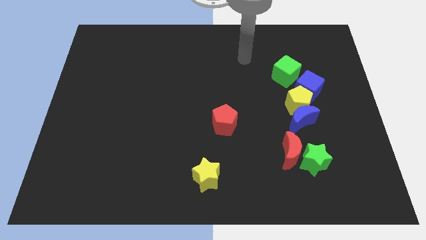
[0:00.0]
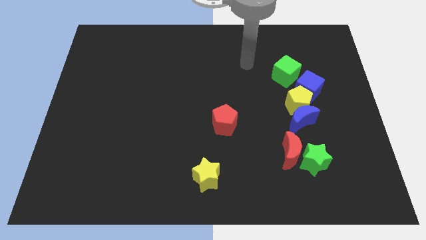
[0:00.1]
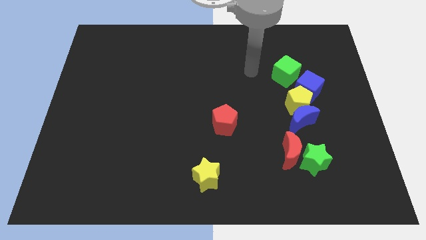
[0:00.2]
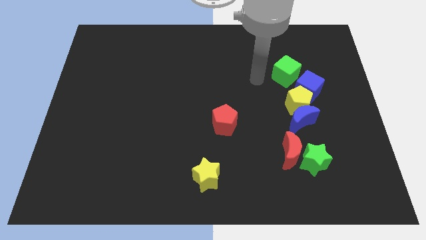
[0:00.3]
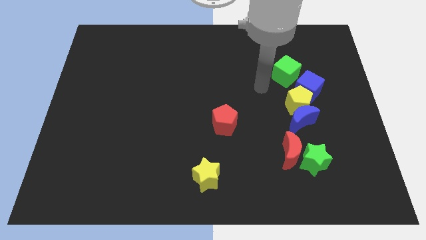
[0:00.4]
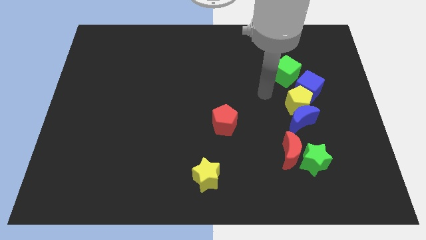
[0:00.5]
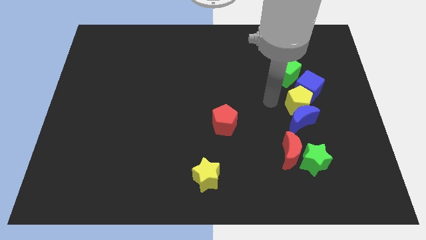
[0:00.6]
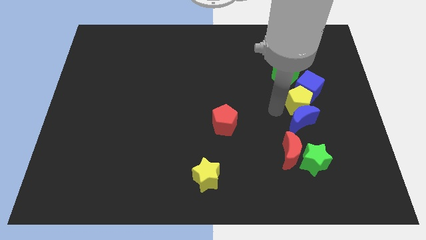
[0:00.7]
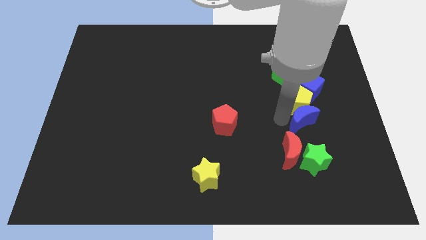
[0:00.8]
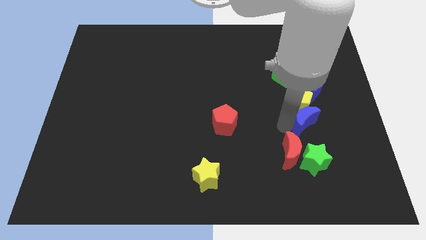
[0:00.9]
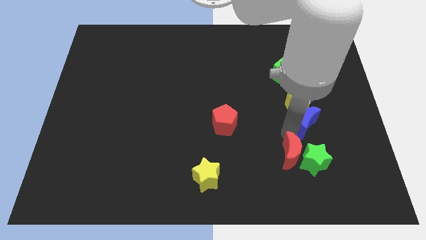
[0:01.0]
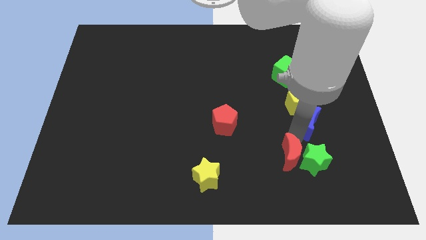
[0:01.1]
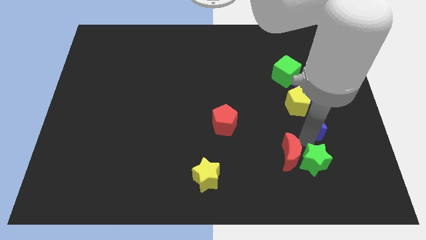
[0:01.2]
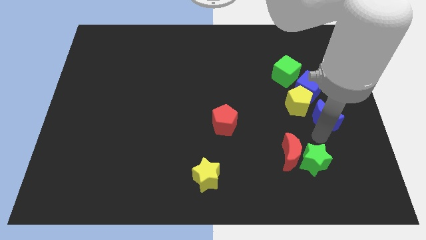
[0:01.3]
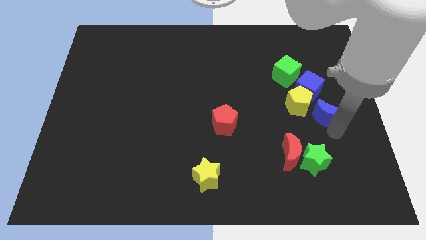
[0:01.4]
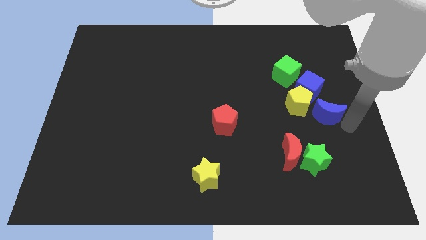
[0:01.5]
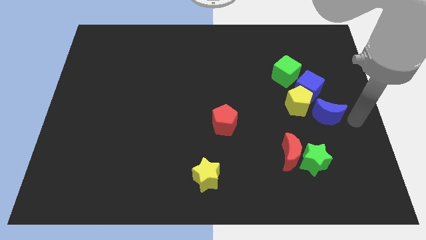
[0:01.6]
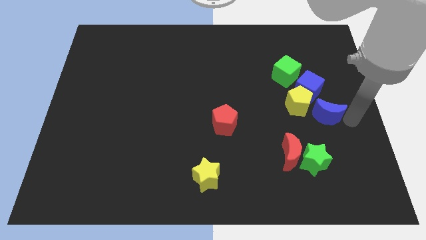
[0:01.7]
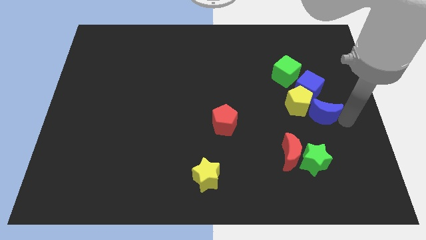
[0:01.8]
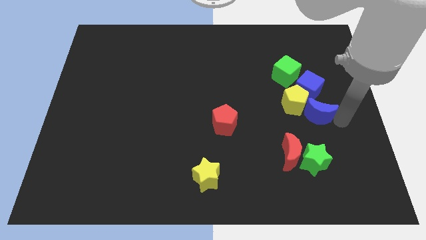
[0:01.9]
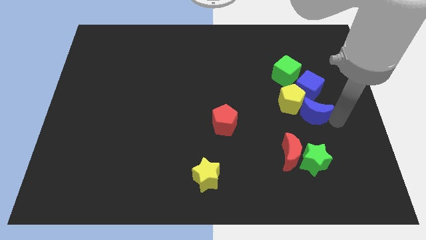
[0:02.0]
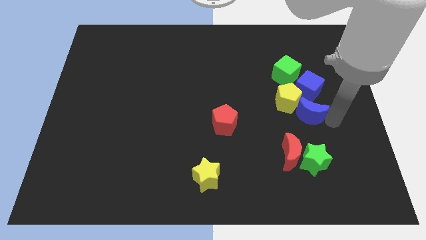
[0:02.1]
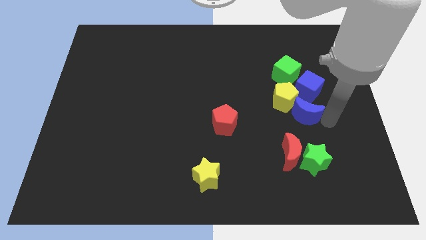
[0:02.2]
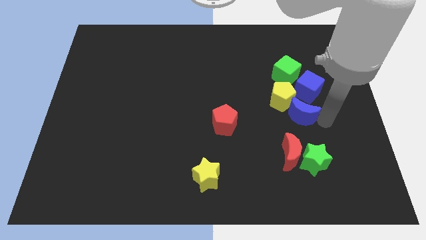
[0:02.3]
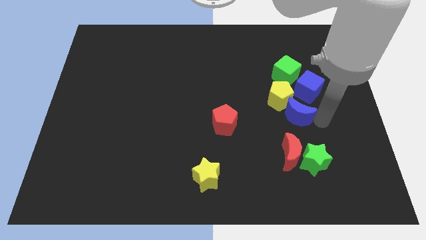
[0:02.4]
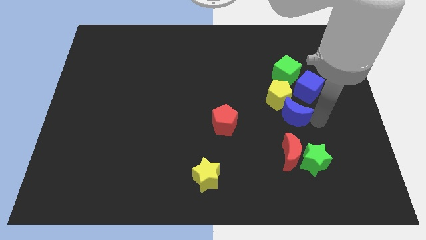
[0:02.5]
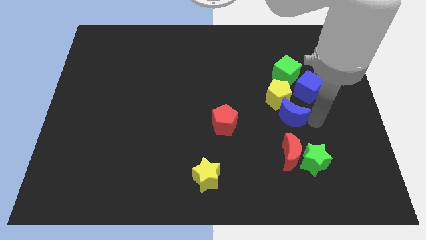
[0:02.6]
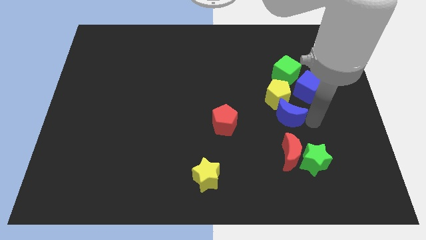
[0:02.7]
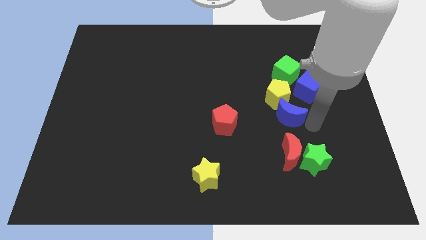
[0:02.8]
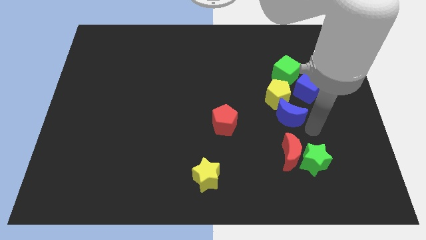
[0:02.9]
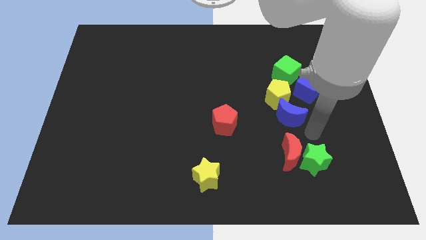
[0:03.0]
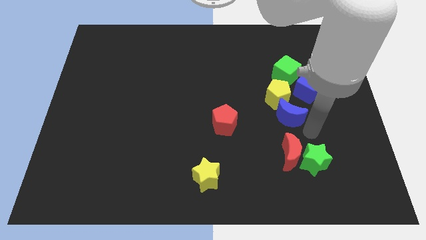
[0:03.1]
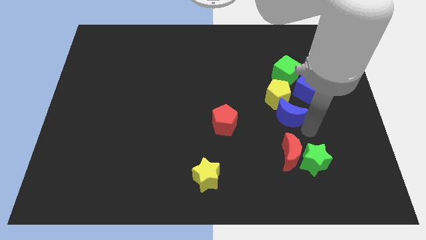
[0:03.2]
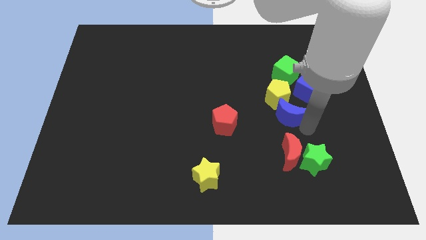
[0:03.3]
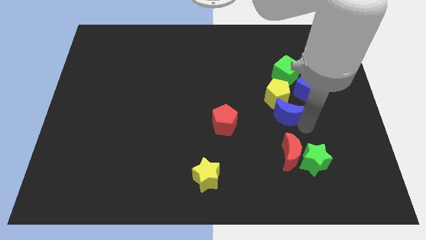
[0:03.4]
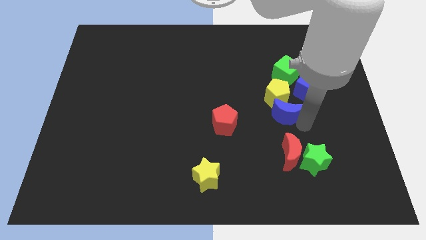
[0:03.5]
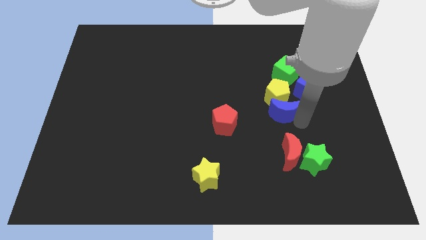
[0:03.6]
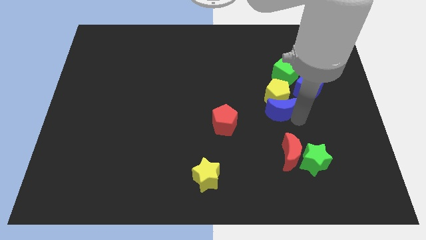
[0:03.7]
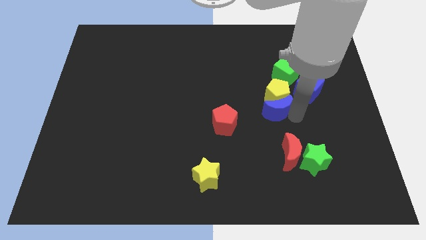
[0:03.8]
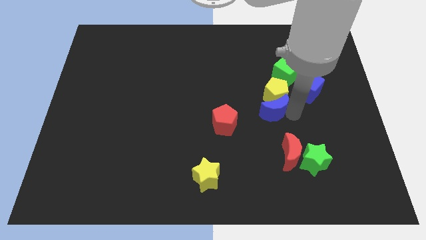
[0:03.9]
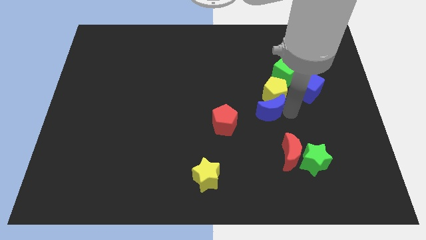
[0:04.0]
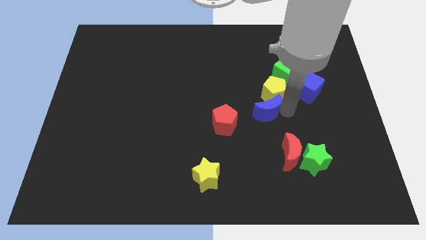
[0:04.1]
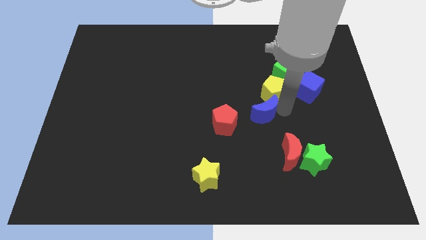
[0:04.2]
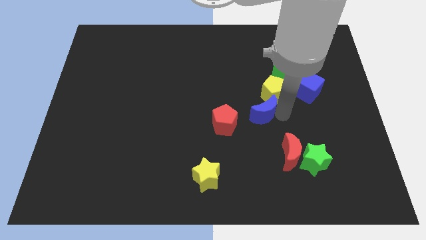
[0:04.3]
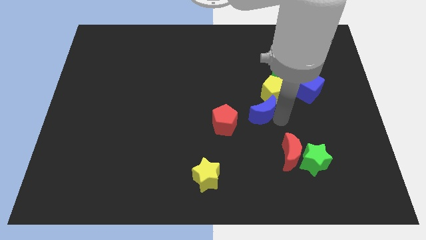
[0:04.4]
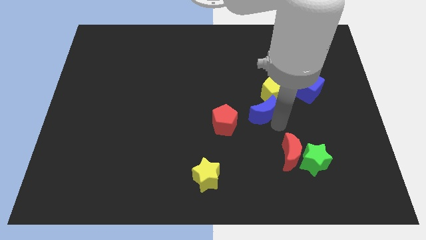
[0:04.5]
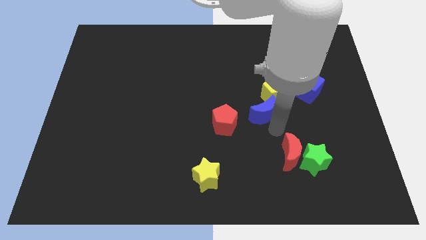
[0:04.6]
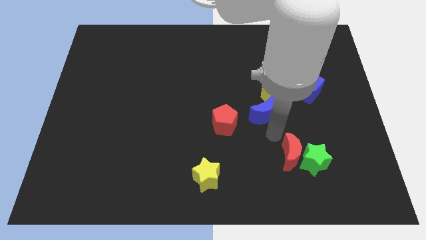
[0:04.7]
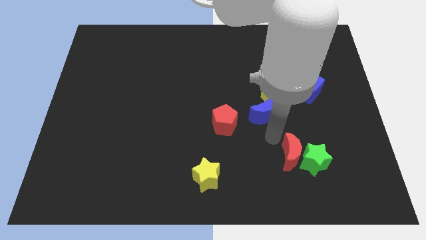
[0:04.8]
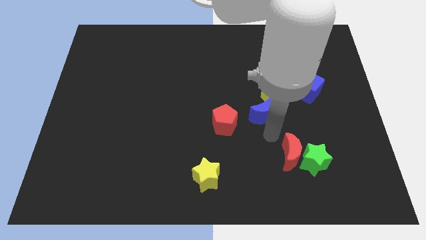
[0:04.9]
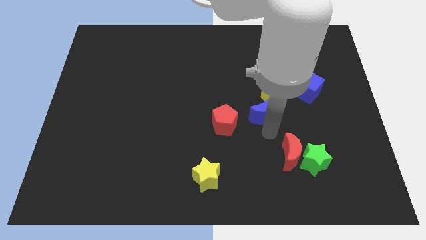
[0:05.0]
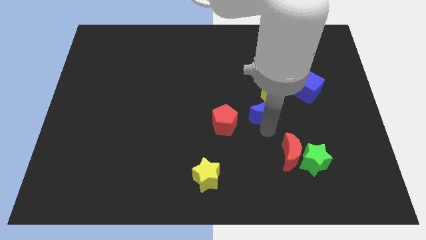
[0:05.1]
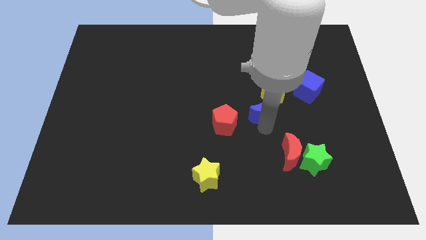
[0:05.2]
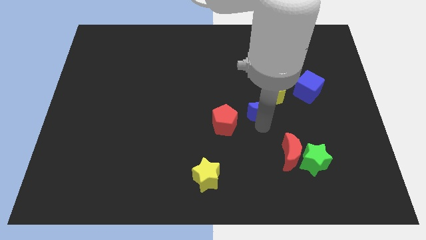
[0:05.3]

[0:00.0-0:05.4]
slightly slide the blue moon upwards and left

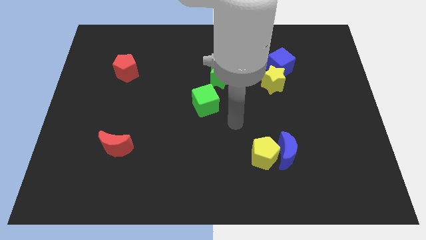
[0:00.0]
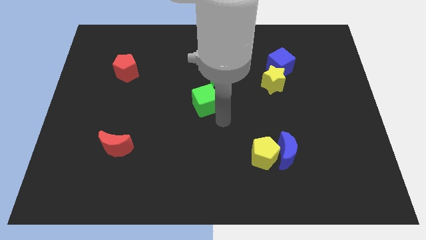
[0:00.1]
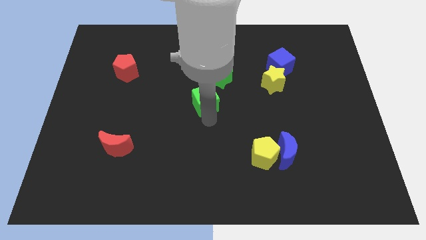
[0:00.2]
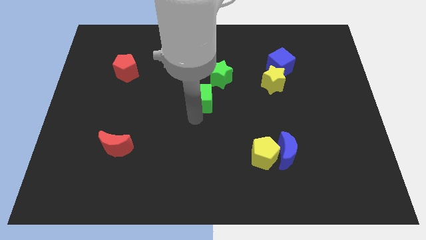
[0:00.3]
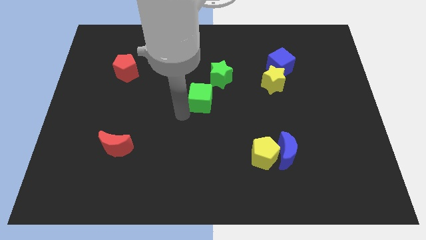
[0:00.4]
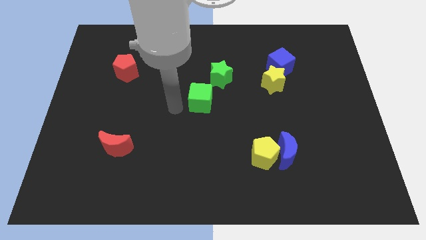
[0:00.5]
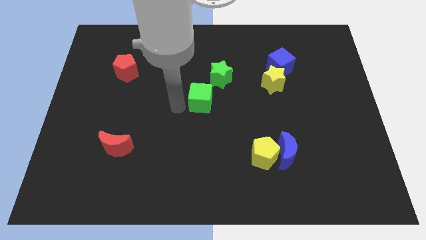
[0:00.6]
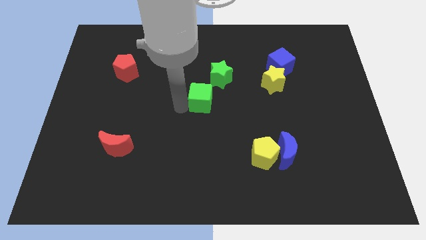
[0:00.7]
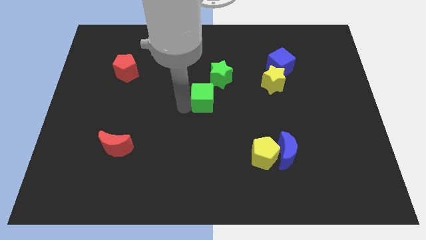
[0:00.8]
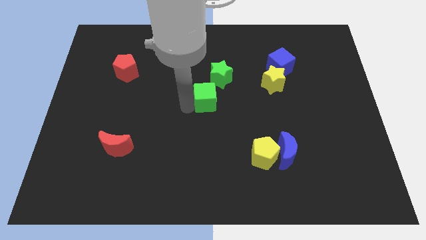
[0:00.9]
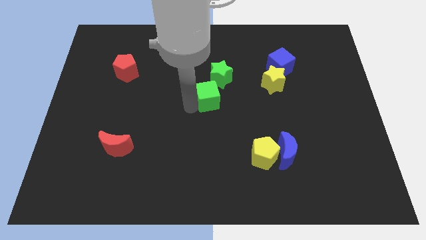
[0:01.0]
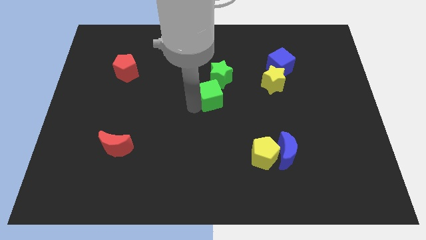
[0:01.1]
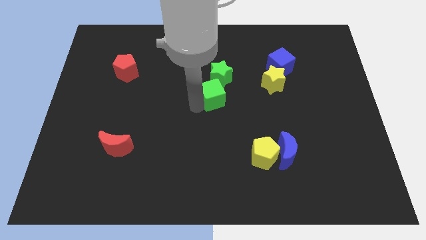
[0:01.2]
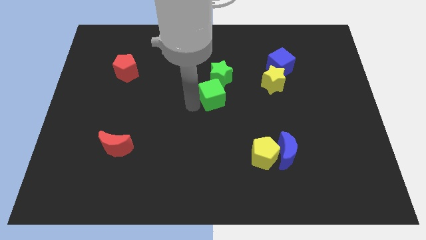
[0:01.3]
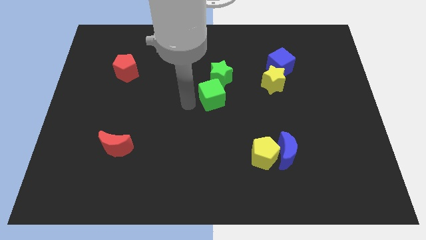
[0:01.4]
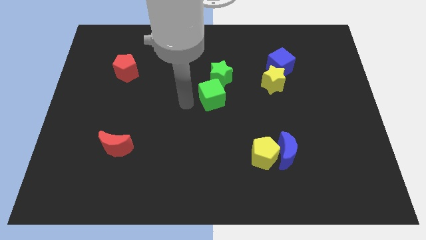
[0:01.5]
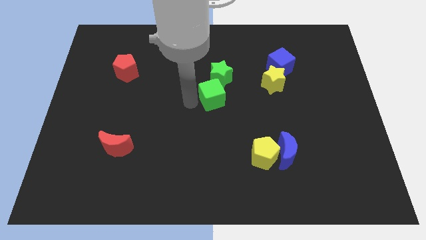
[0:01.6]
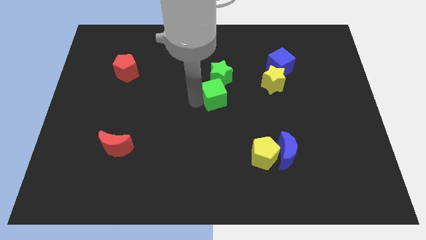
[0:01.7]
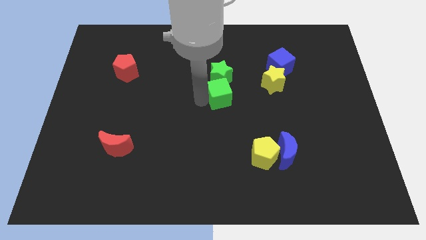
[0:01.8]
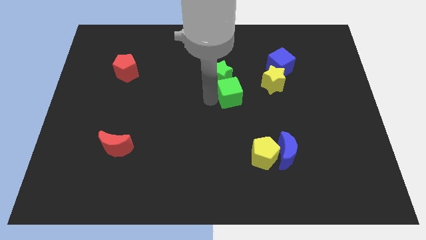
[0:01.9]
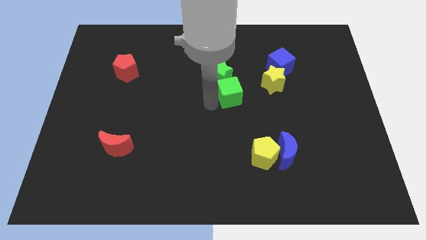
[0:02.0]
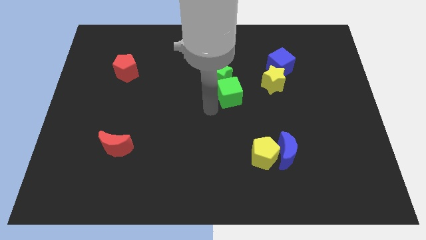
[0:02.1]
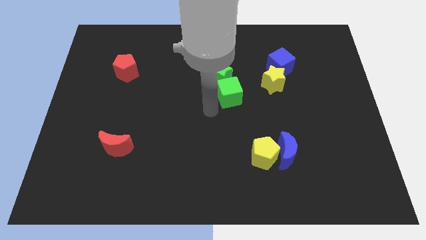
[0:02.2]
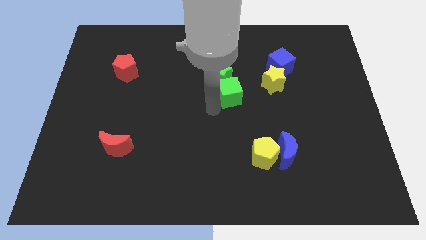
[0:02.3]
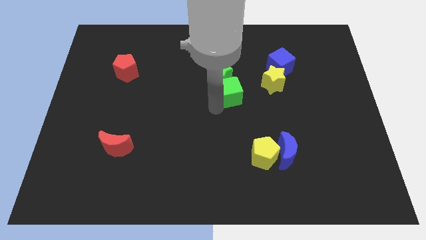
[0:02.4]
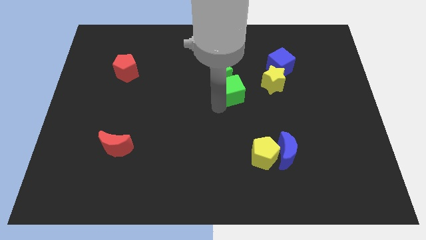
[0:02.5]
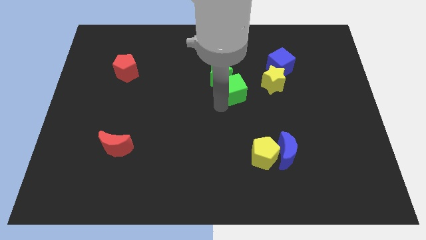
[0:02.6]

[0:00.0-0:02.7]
slightly slide the green cube diagonally up and right
